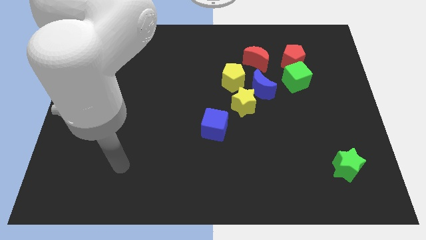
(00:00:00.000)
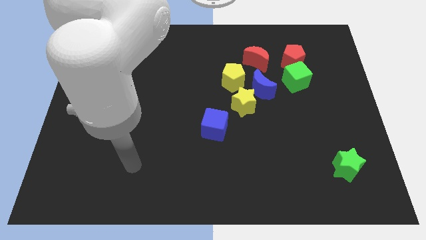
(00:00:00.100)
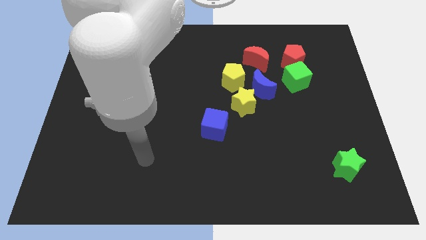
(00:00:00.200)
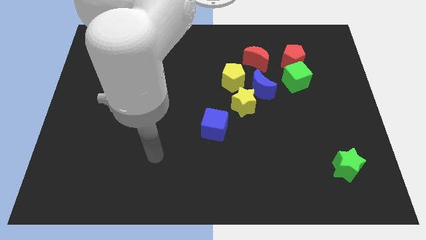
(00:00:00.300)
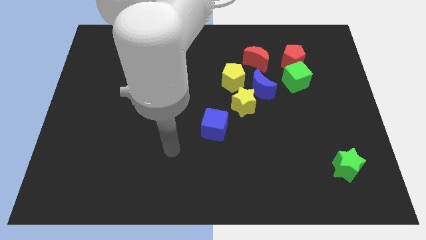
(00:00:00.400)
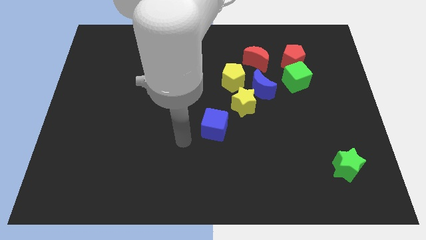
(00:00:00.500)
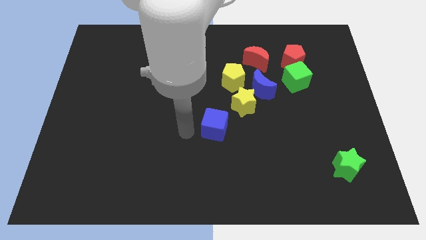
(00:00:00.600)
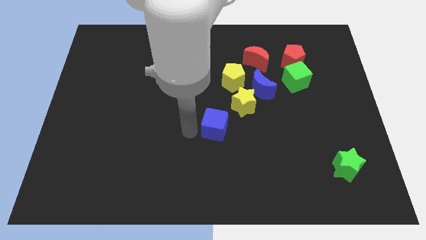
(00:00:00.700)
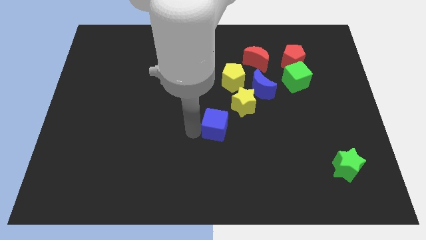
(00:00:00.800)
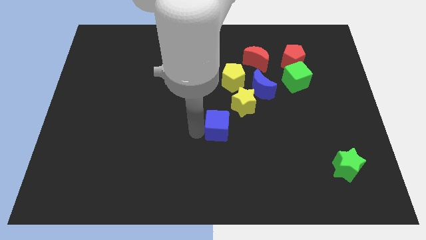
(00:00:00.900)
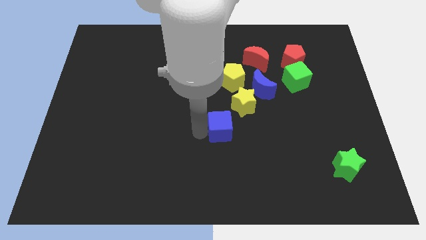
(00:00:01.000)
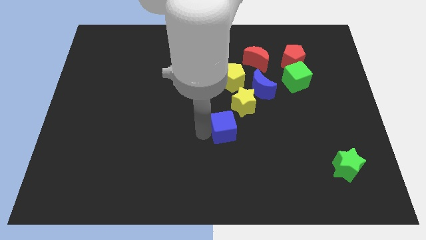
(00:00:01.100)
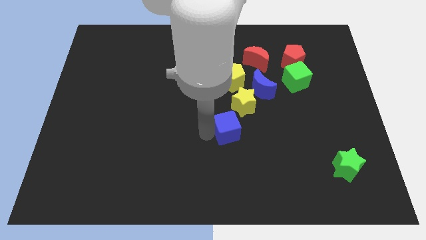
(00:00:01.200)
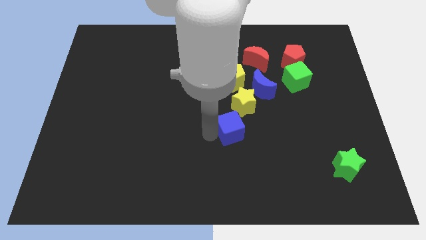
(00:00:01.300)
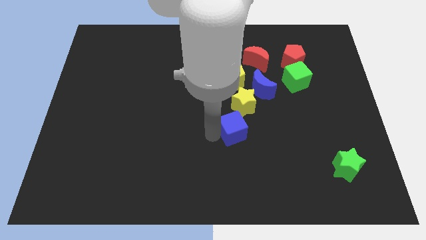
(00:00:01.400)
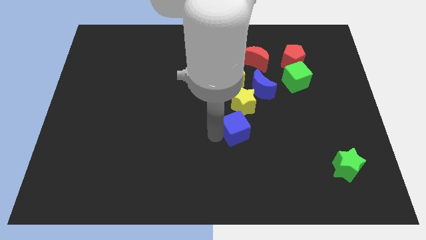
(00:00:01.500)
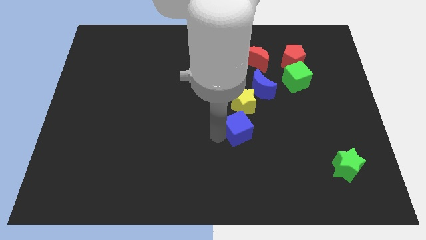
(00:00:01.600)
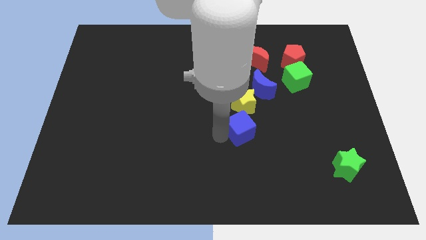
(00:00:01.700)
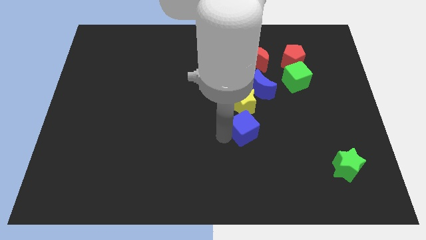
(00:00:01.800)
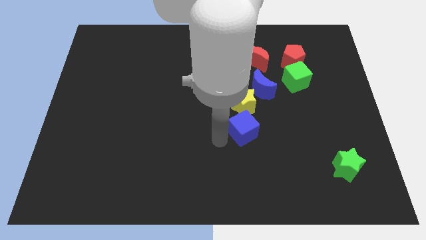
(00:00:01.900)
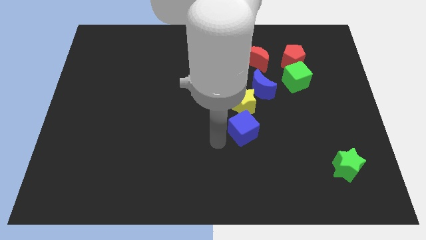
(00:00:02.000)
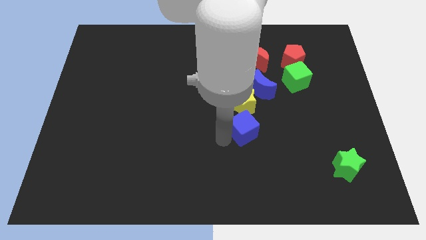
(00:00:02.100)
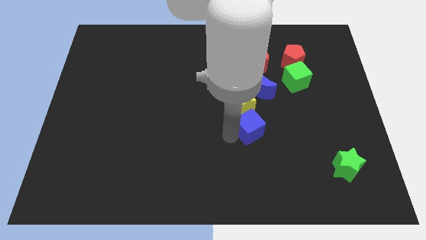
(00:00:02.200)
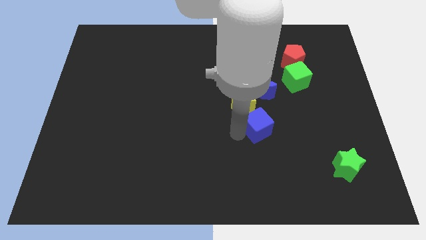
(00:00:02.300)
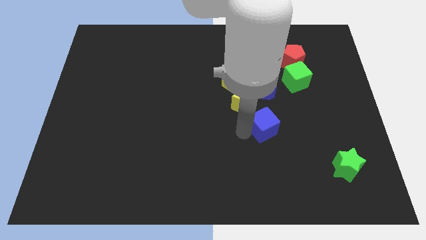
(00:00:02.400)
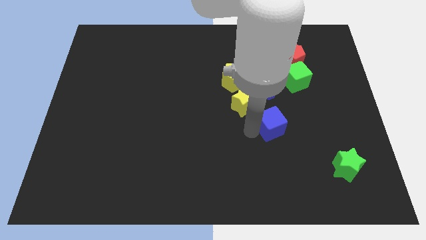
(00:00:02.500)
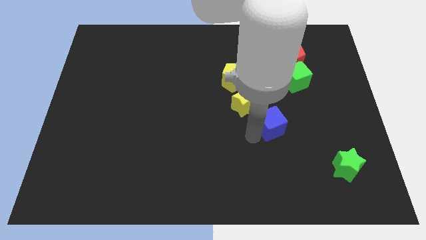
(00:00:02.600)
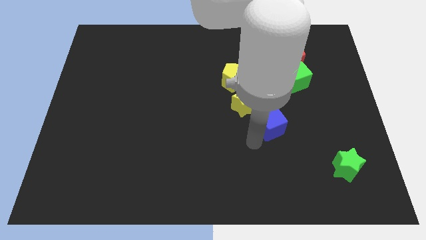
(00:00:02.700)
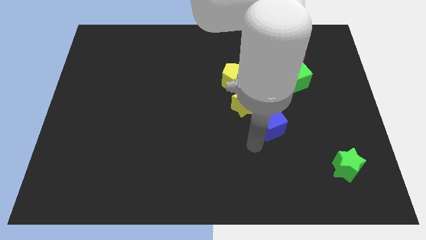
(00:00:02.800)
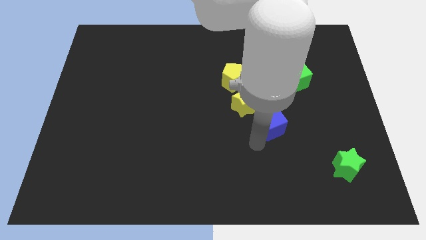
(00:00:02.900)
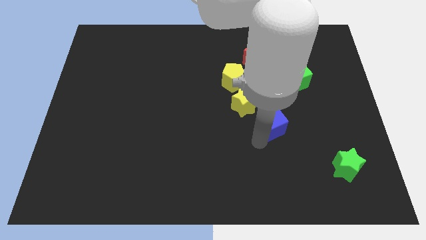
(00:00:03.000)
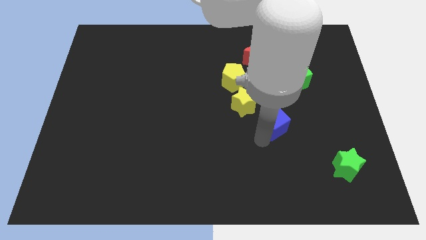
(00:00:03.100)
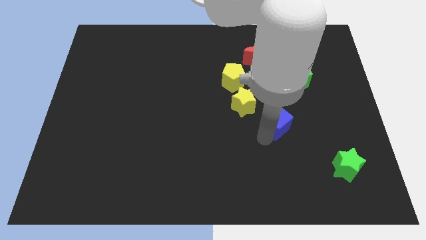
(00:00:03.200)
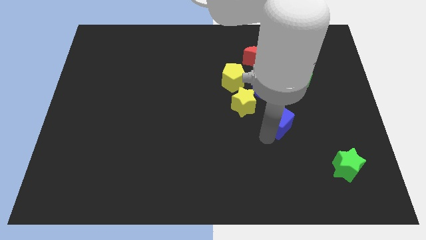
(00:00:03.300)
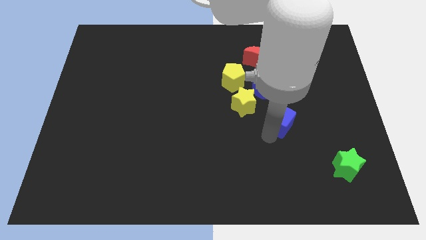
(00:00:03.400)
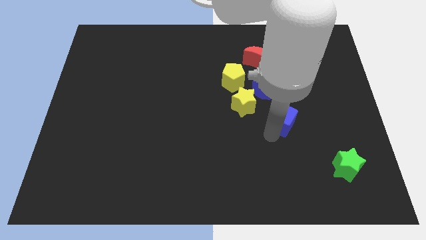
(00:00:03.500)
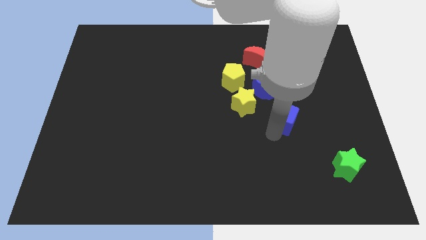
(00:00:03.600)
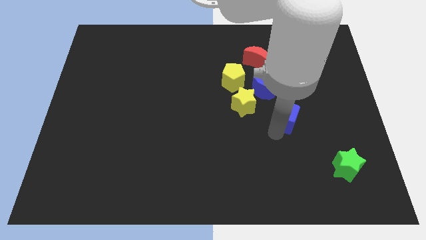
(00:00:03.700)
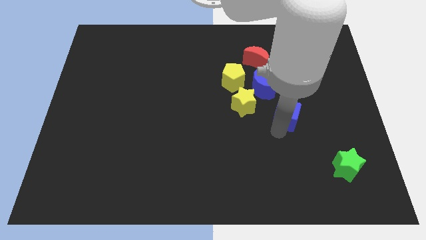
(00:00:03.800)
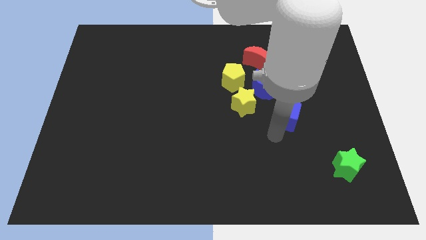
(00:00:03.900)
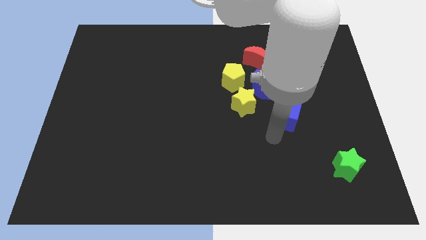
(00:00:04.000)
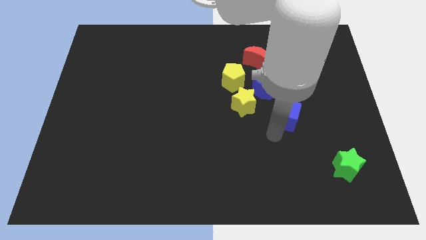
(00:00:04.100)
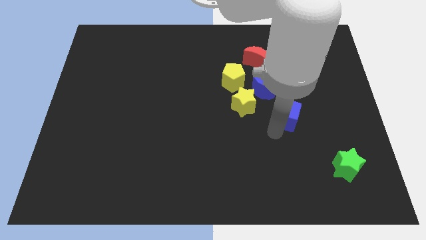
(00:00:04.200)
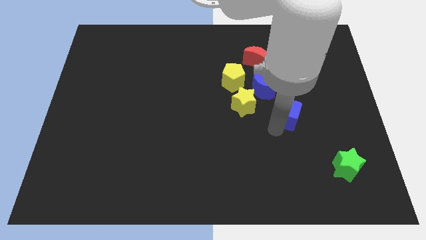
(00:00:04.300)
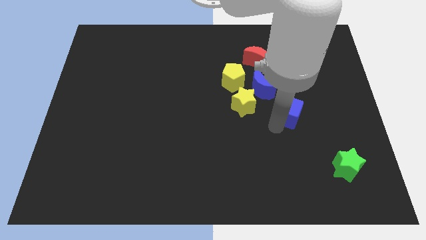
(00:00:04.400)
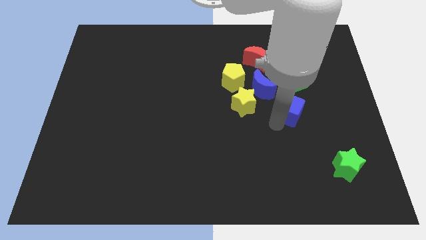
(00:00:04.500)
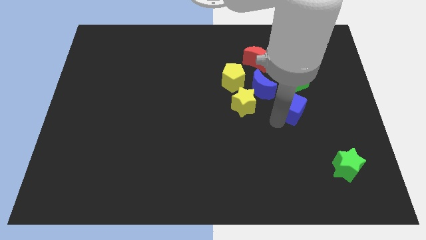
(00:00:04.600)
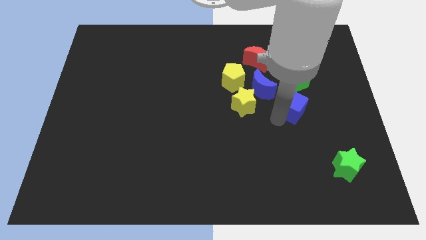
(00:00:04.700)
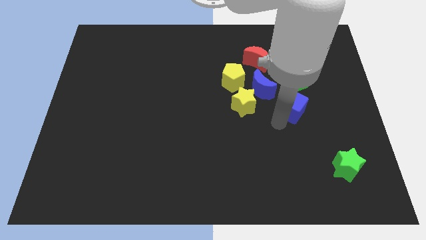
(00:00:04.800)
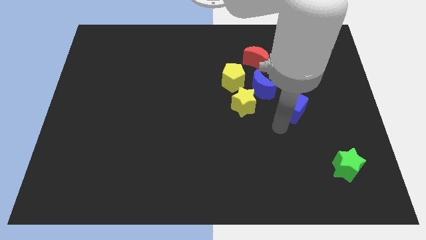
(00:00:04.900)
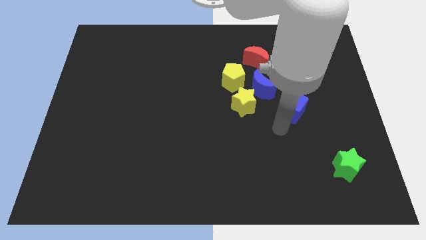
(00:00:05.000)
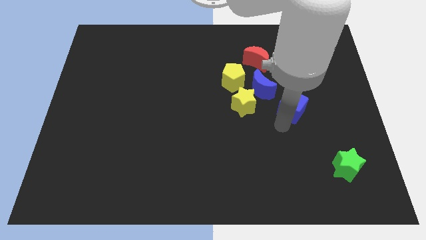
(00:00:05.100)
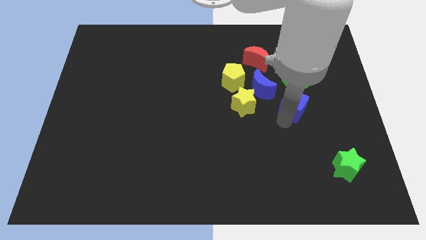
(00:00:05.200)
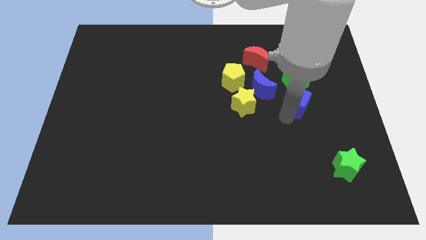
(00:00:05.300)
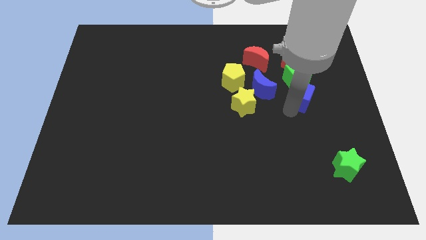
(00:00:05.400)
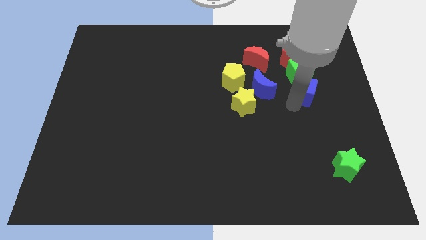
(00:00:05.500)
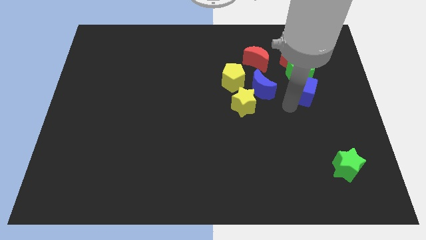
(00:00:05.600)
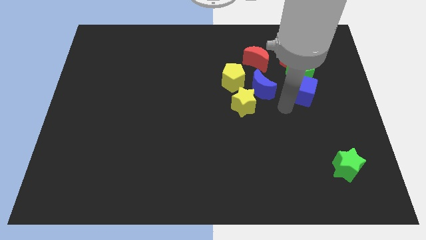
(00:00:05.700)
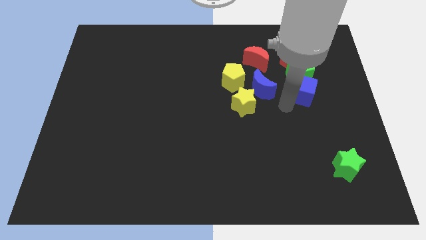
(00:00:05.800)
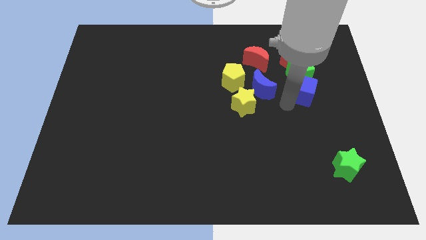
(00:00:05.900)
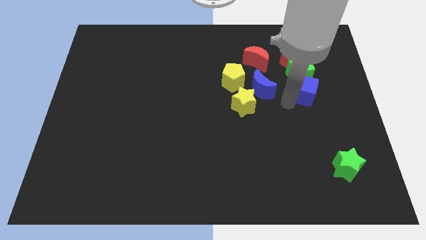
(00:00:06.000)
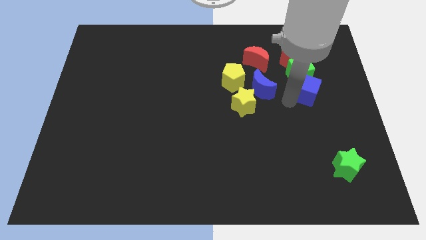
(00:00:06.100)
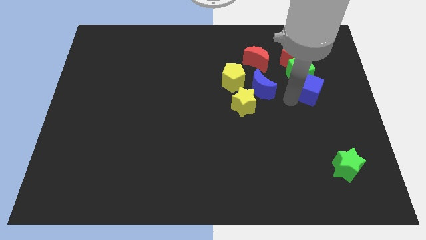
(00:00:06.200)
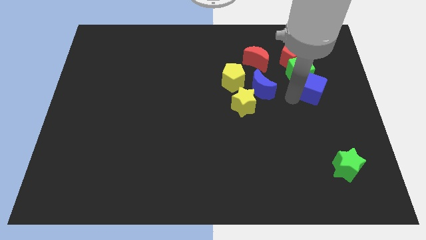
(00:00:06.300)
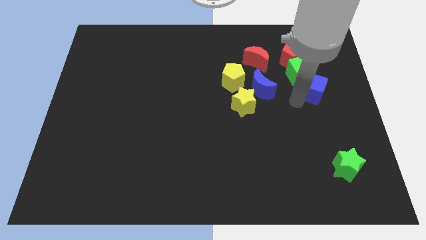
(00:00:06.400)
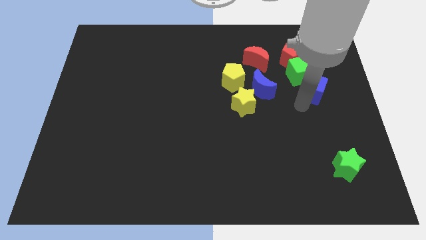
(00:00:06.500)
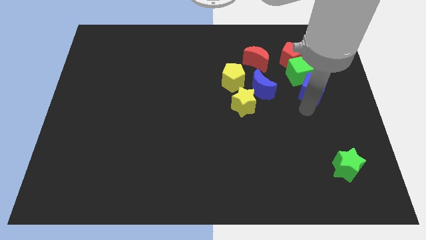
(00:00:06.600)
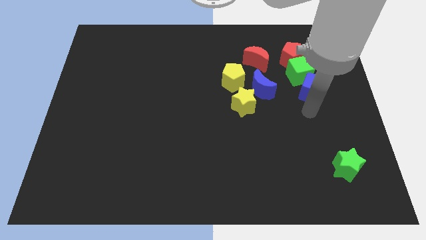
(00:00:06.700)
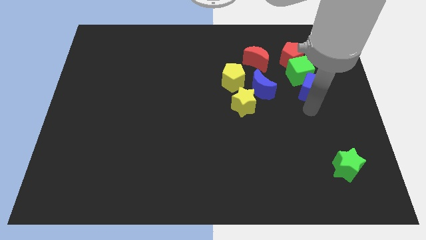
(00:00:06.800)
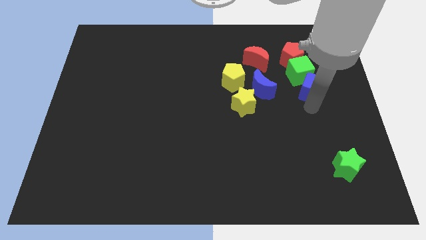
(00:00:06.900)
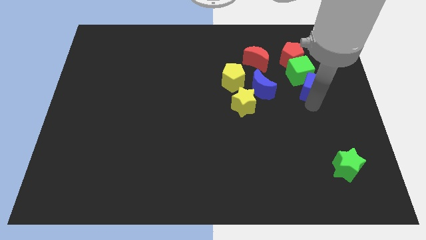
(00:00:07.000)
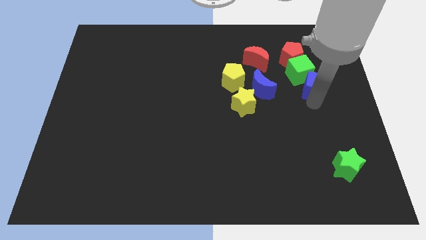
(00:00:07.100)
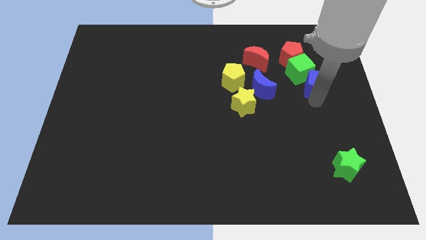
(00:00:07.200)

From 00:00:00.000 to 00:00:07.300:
move the blue cube to the bottom right of the red pentagon
